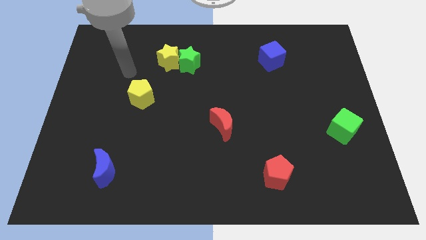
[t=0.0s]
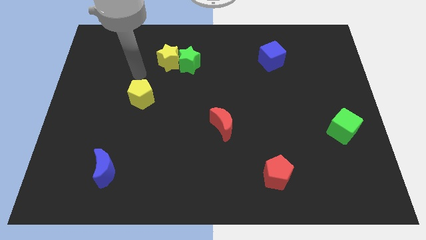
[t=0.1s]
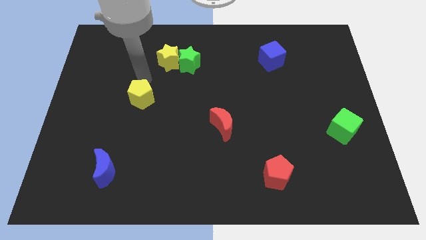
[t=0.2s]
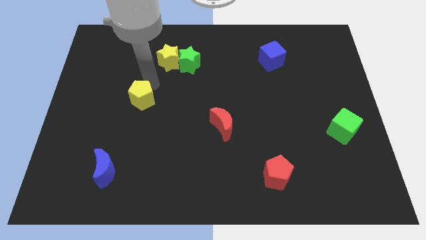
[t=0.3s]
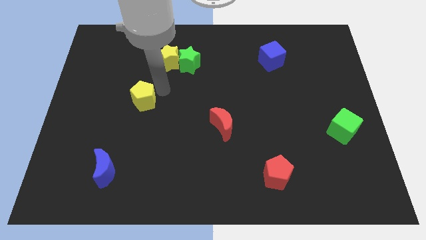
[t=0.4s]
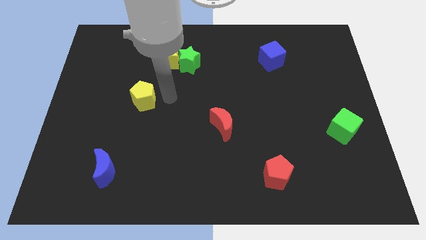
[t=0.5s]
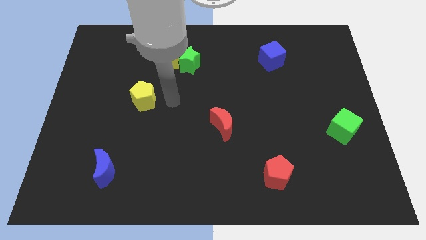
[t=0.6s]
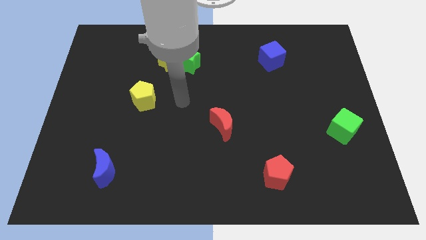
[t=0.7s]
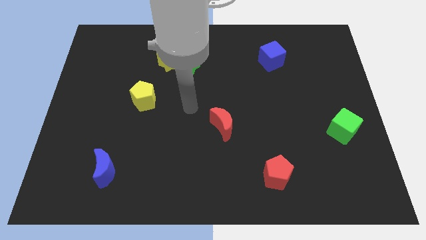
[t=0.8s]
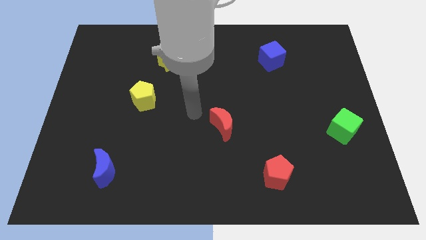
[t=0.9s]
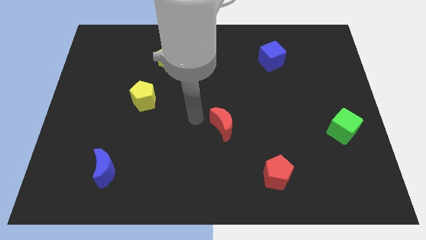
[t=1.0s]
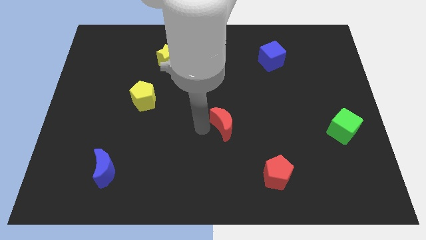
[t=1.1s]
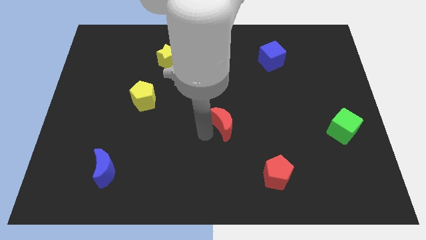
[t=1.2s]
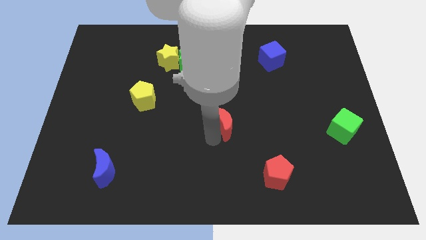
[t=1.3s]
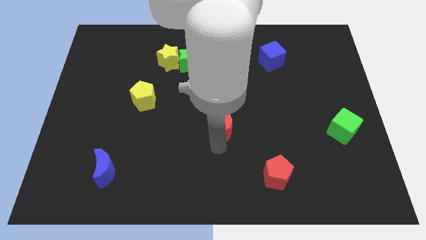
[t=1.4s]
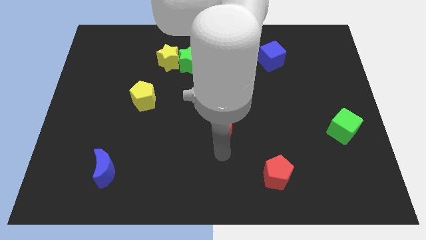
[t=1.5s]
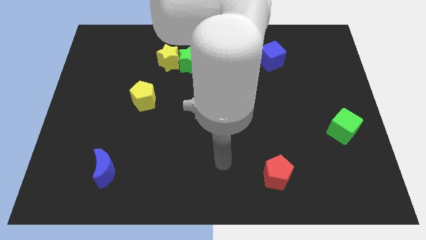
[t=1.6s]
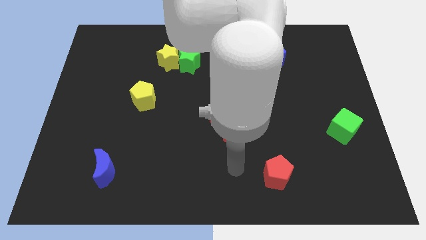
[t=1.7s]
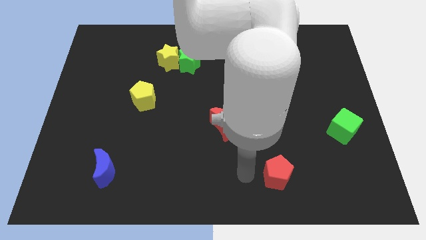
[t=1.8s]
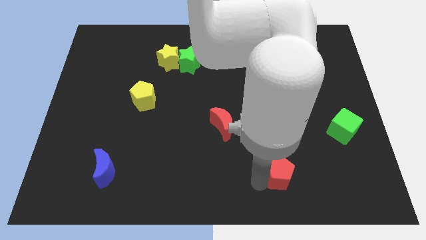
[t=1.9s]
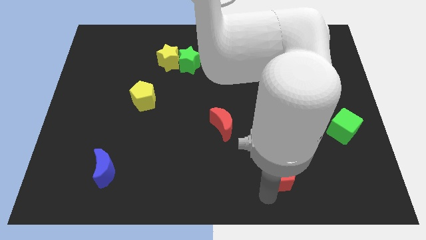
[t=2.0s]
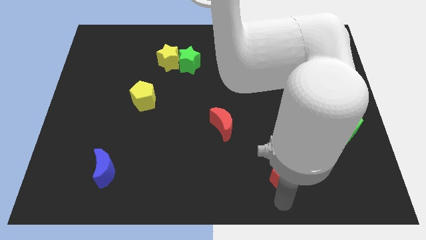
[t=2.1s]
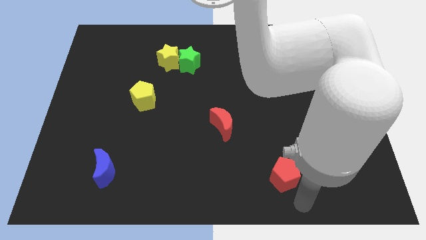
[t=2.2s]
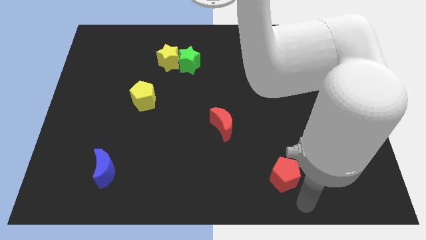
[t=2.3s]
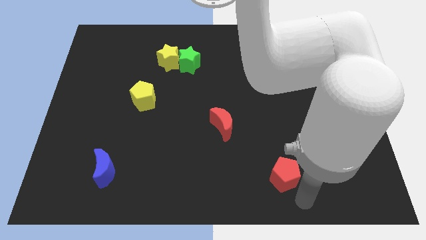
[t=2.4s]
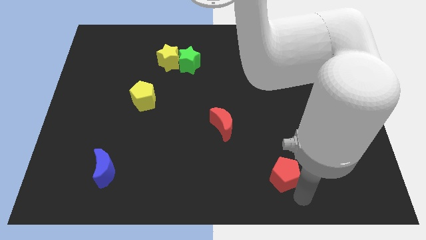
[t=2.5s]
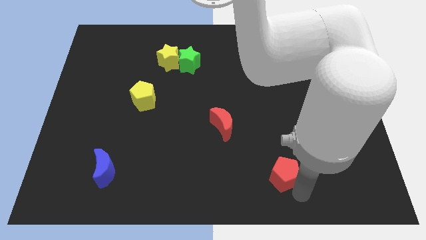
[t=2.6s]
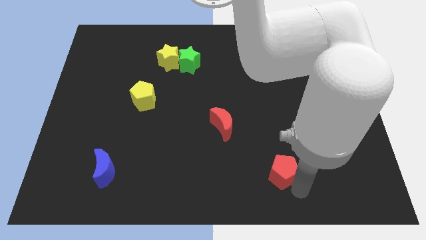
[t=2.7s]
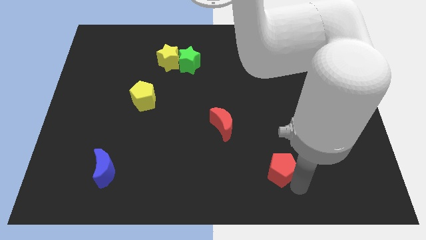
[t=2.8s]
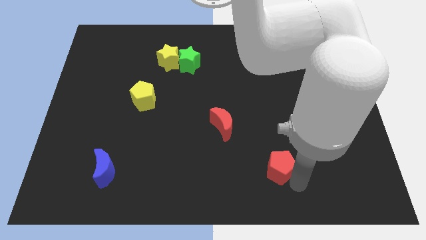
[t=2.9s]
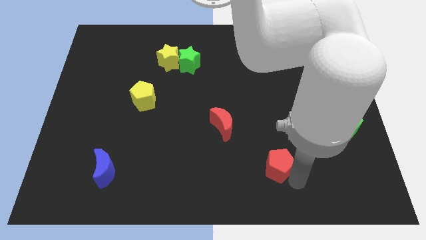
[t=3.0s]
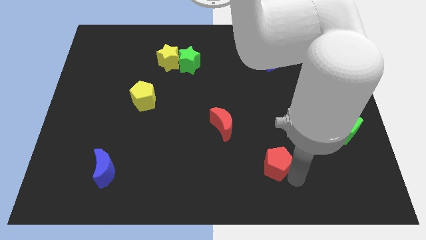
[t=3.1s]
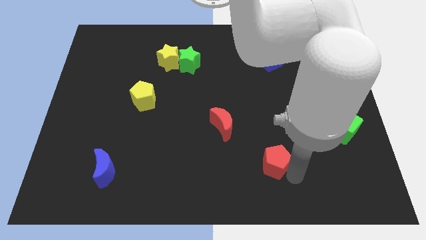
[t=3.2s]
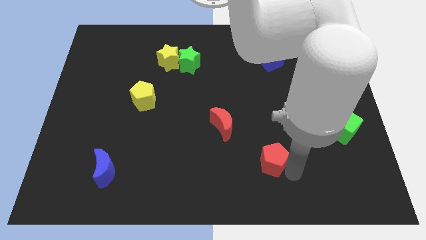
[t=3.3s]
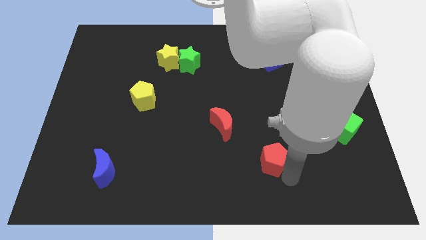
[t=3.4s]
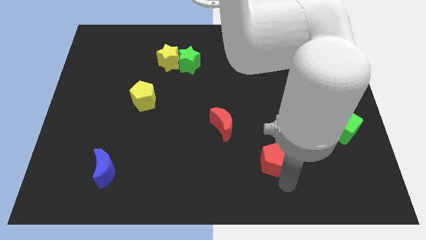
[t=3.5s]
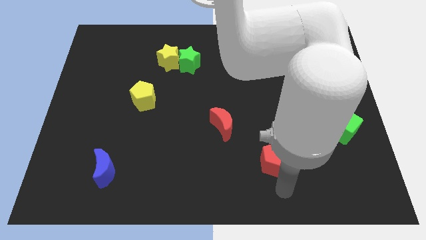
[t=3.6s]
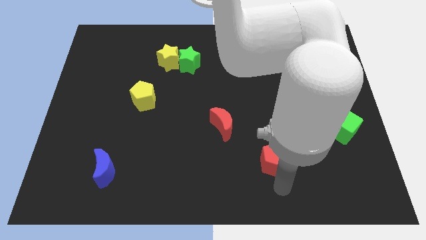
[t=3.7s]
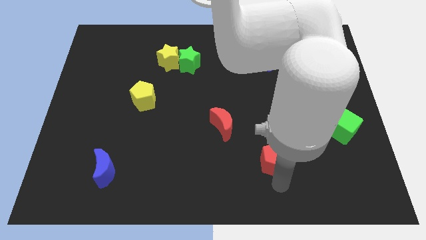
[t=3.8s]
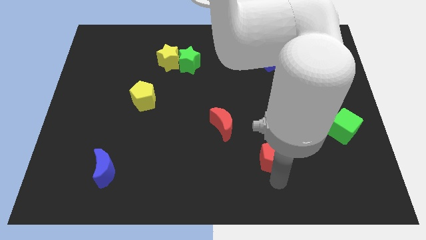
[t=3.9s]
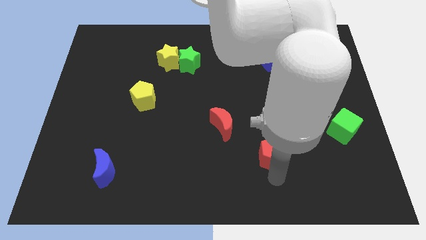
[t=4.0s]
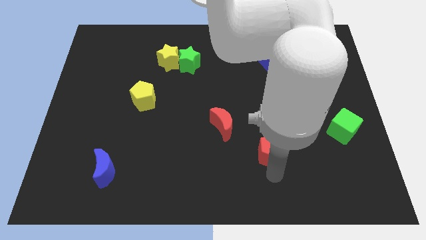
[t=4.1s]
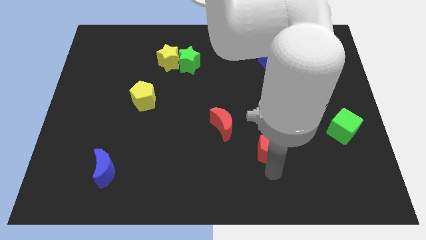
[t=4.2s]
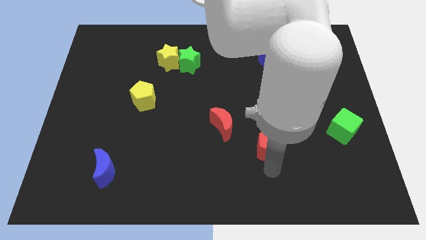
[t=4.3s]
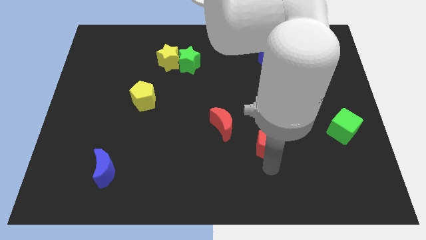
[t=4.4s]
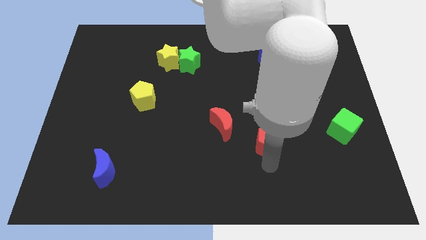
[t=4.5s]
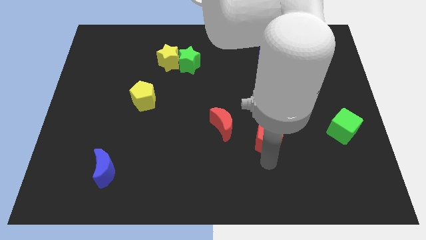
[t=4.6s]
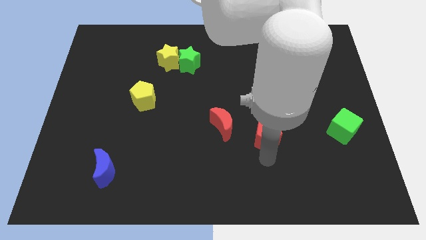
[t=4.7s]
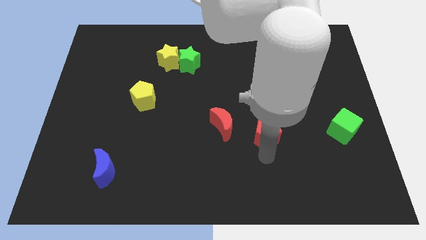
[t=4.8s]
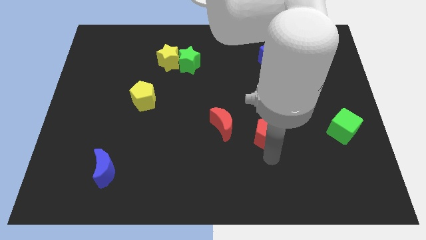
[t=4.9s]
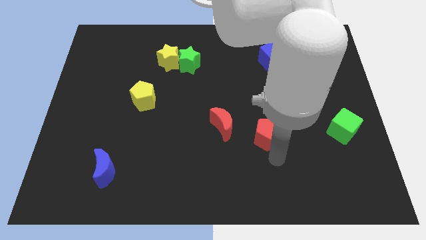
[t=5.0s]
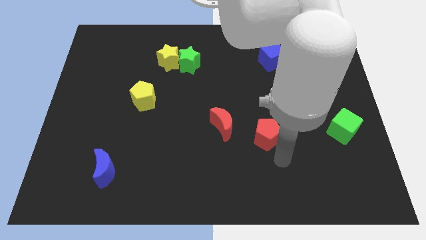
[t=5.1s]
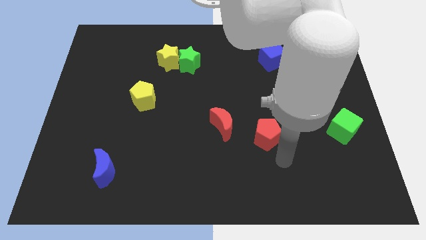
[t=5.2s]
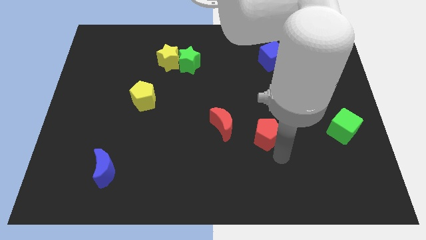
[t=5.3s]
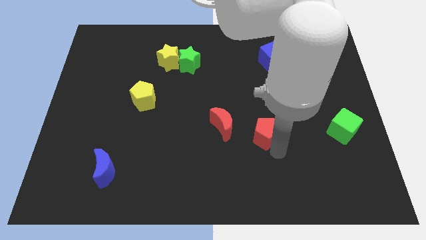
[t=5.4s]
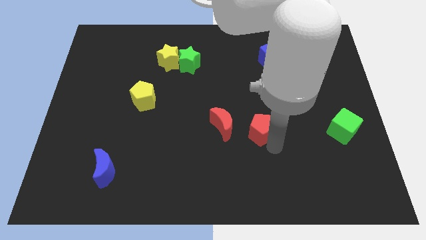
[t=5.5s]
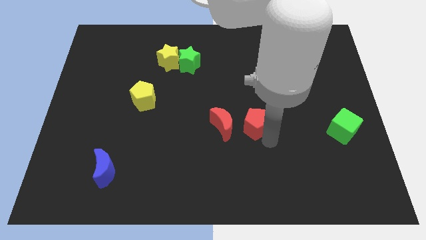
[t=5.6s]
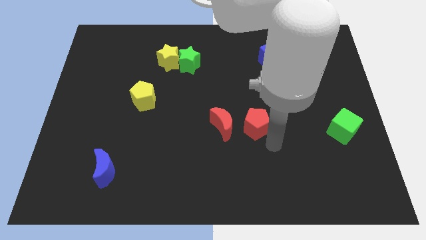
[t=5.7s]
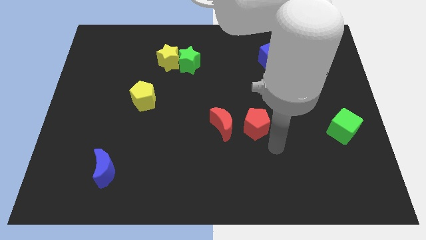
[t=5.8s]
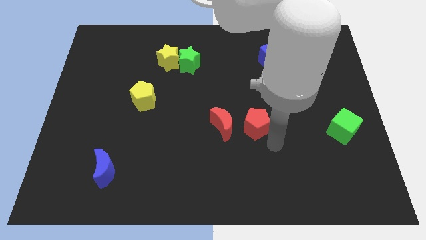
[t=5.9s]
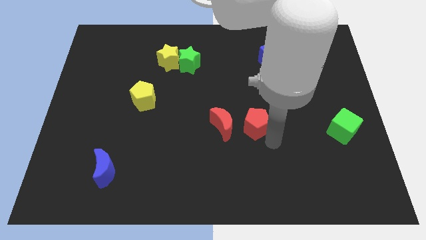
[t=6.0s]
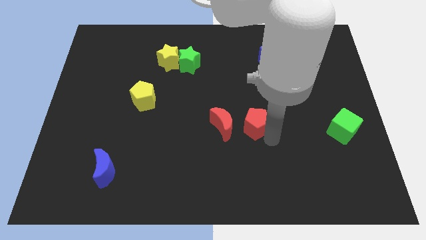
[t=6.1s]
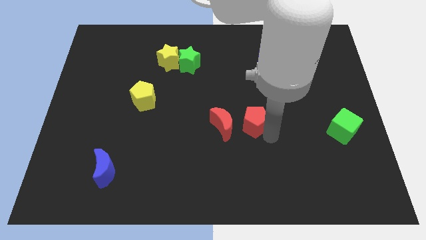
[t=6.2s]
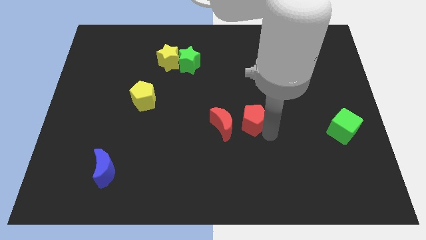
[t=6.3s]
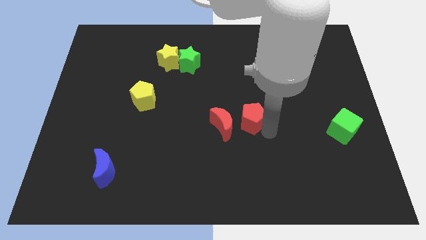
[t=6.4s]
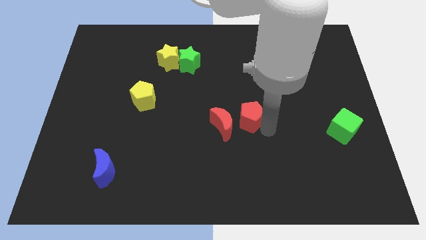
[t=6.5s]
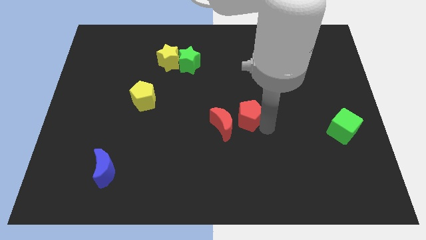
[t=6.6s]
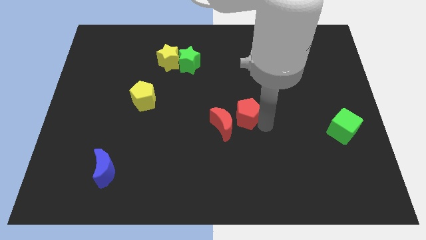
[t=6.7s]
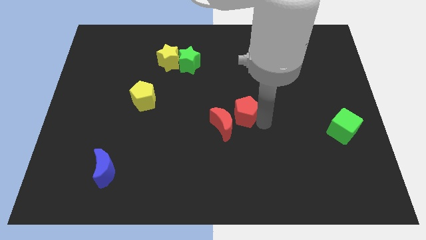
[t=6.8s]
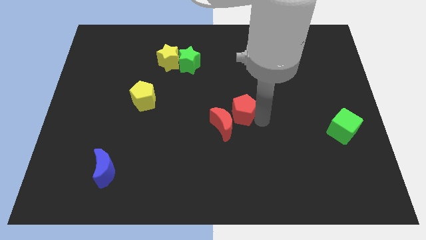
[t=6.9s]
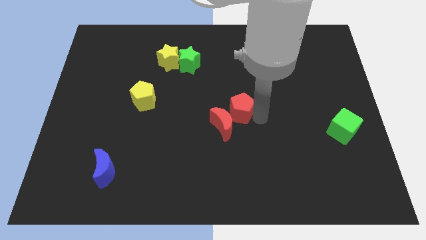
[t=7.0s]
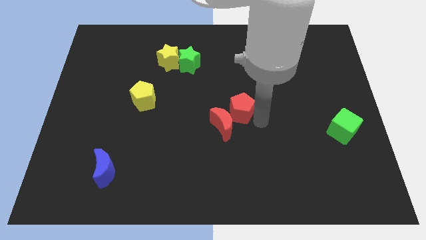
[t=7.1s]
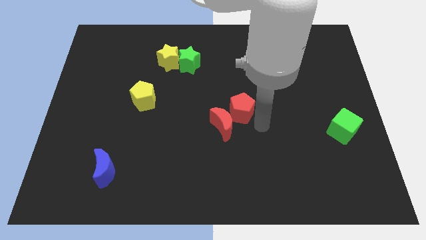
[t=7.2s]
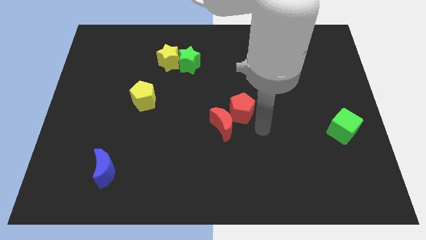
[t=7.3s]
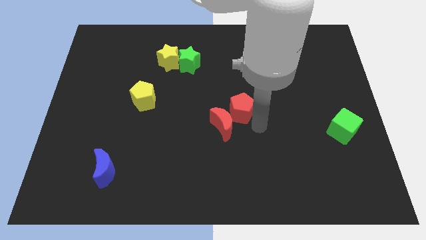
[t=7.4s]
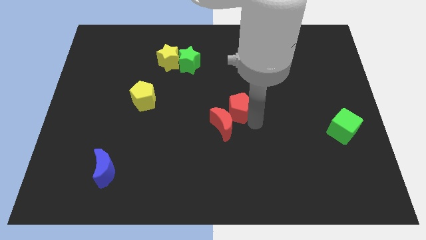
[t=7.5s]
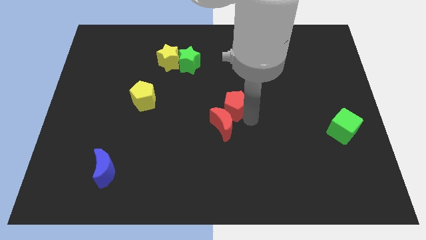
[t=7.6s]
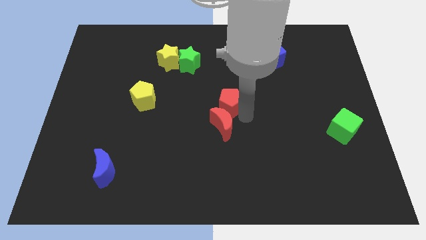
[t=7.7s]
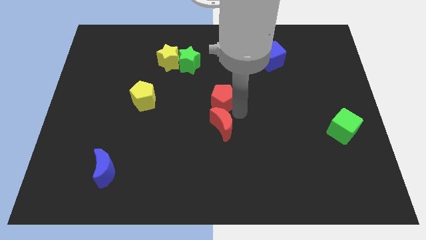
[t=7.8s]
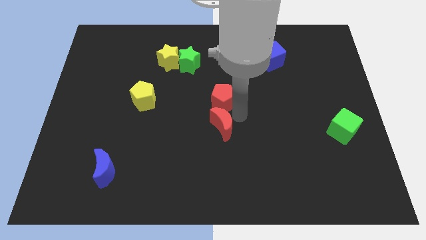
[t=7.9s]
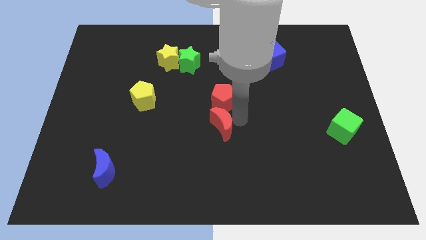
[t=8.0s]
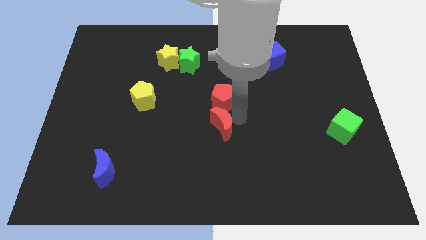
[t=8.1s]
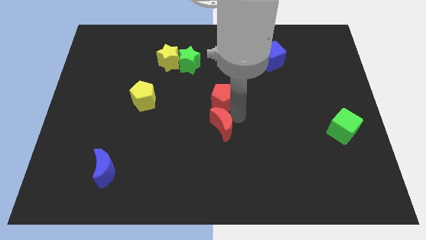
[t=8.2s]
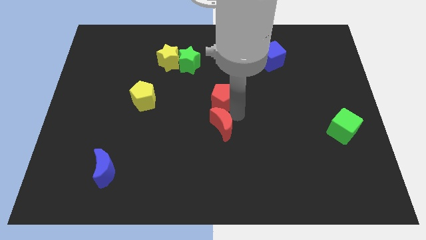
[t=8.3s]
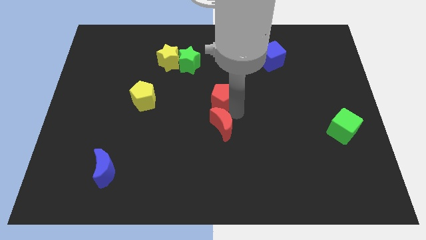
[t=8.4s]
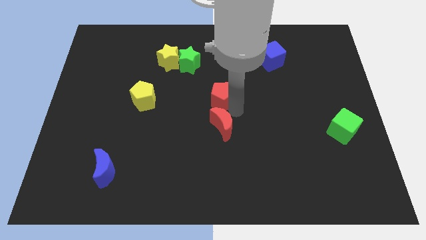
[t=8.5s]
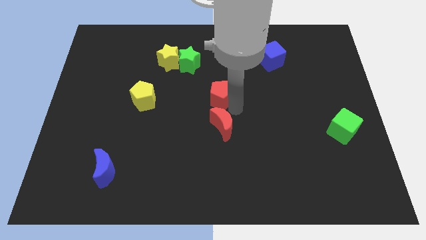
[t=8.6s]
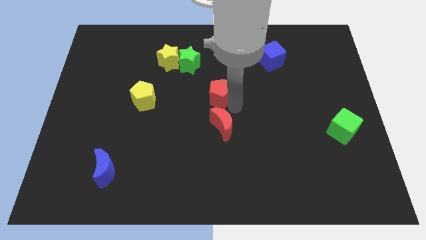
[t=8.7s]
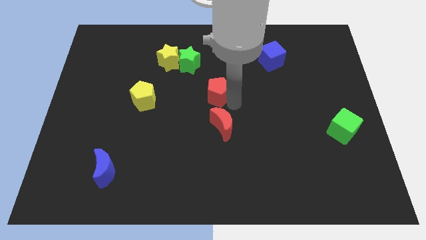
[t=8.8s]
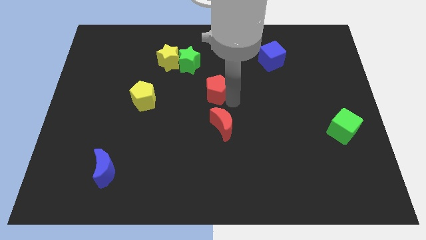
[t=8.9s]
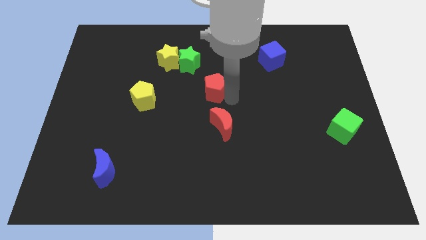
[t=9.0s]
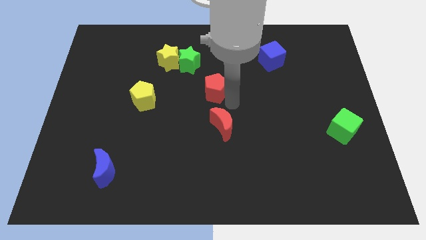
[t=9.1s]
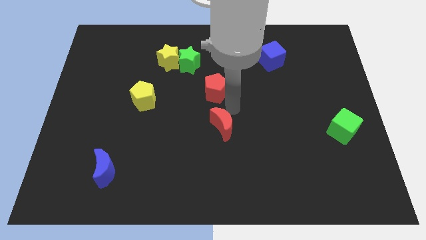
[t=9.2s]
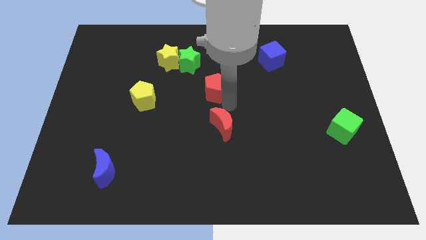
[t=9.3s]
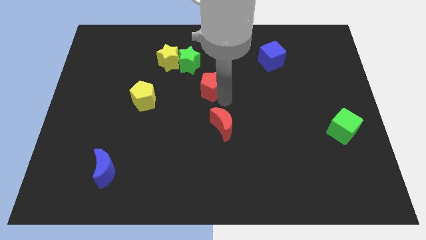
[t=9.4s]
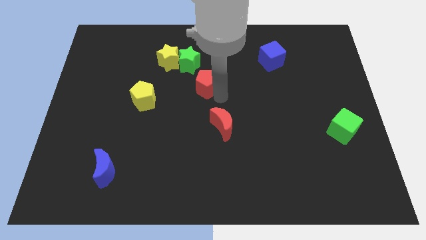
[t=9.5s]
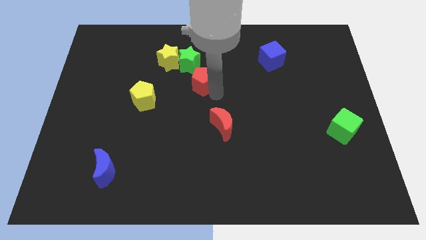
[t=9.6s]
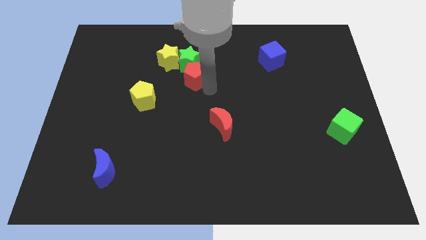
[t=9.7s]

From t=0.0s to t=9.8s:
move the red pentagon close to the green star
